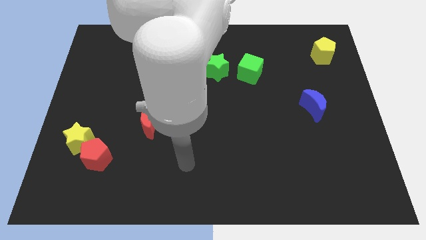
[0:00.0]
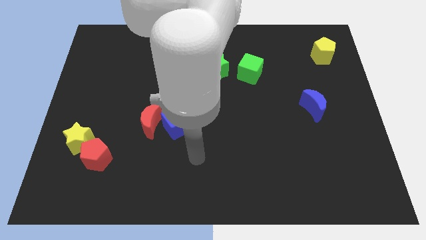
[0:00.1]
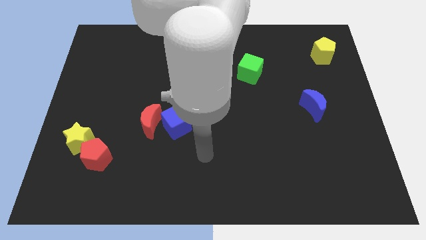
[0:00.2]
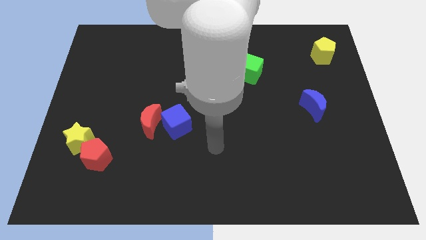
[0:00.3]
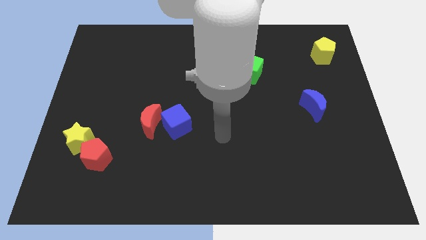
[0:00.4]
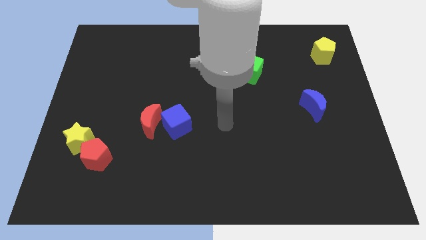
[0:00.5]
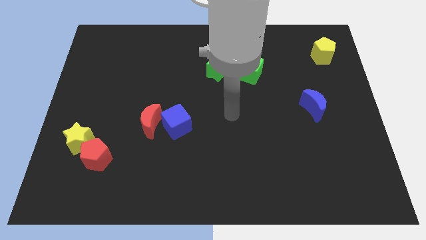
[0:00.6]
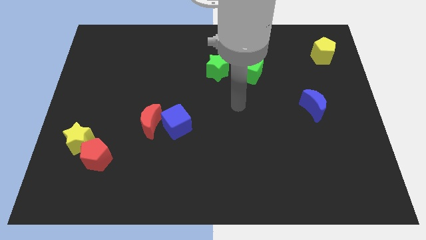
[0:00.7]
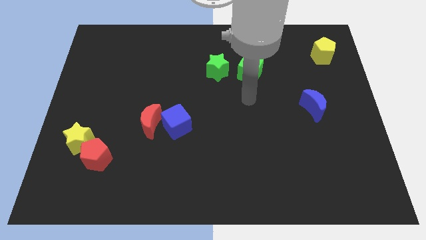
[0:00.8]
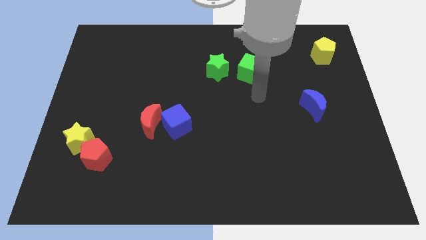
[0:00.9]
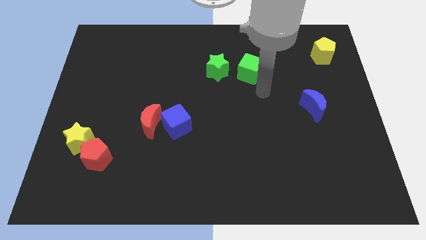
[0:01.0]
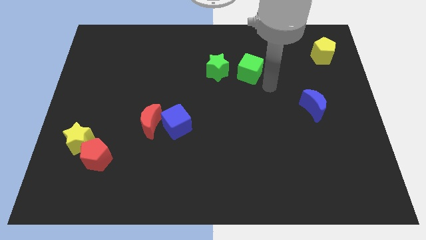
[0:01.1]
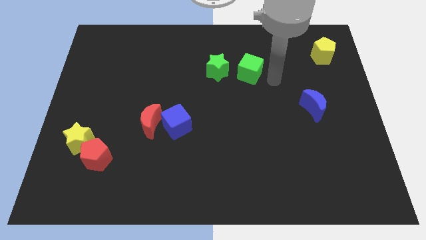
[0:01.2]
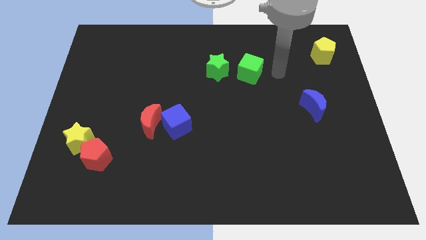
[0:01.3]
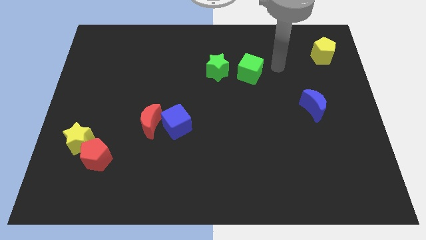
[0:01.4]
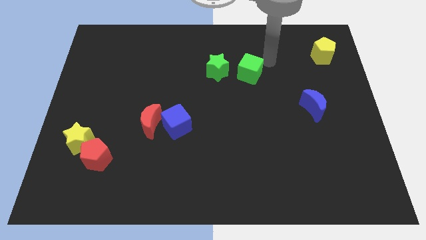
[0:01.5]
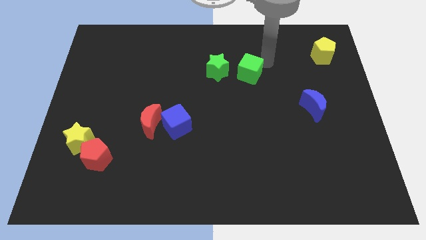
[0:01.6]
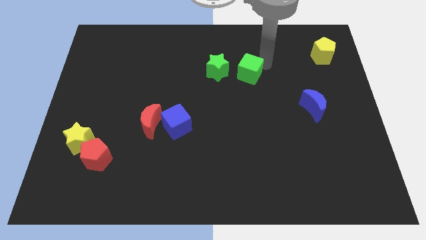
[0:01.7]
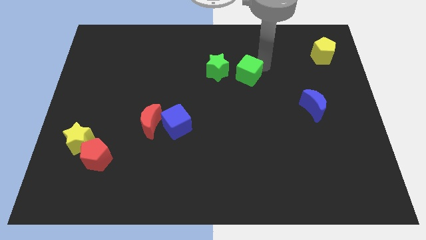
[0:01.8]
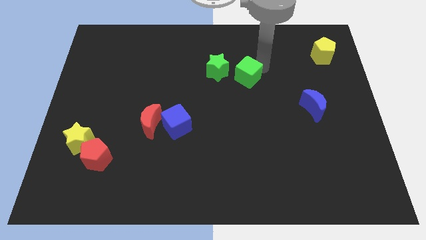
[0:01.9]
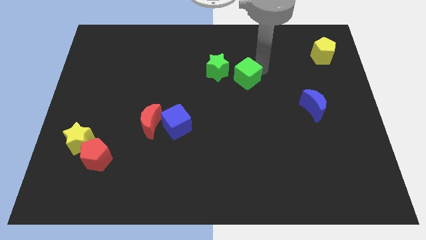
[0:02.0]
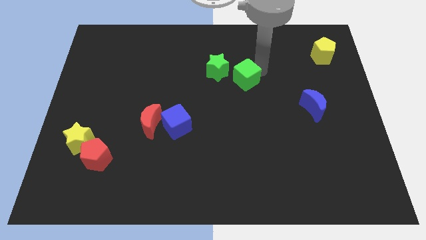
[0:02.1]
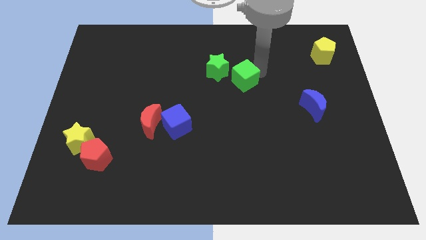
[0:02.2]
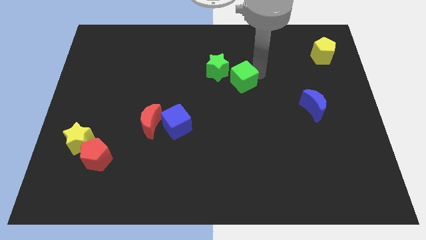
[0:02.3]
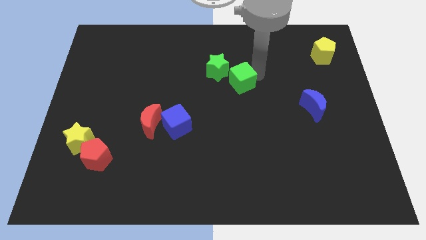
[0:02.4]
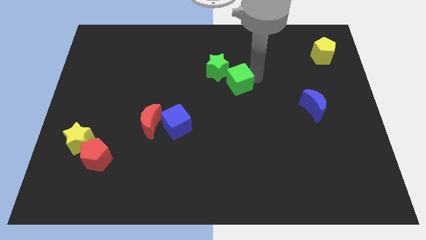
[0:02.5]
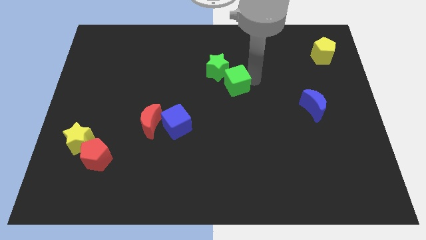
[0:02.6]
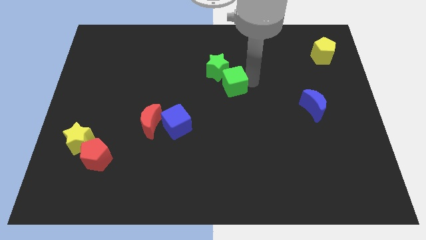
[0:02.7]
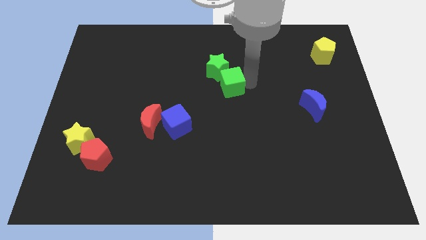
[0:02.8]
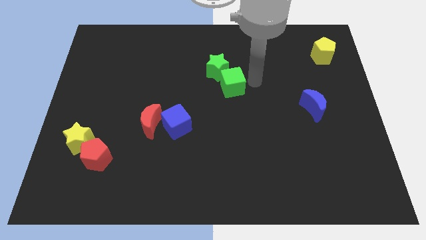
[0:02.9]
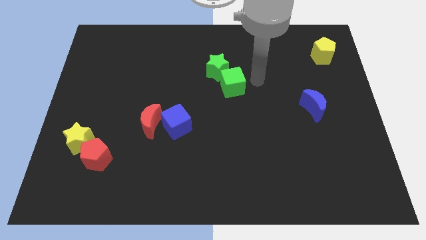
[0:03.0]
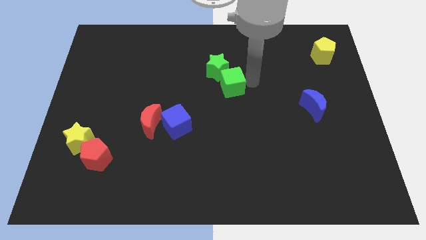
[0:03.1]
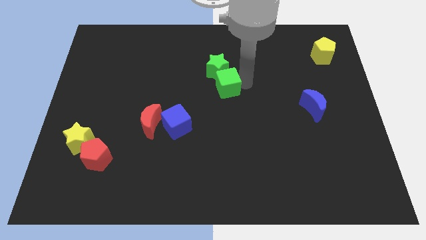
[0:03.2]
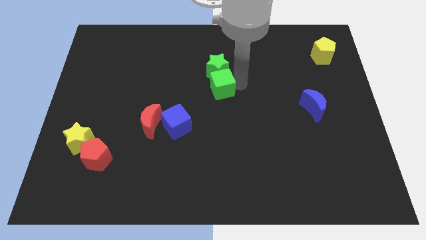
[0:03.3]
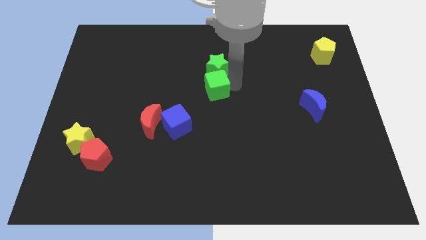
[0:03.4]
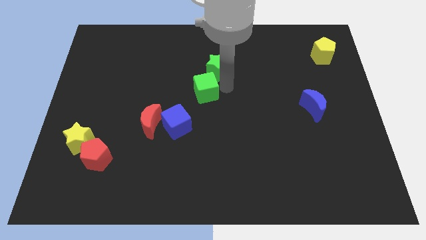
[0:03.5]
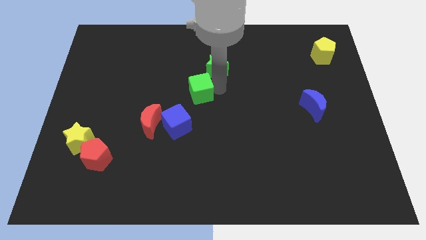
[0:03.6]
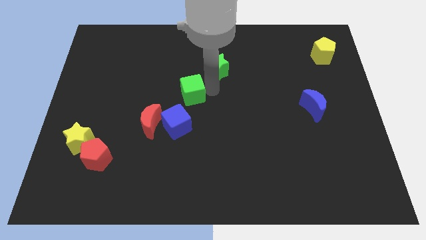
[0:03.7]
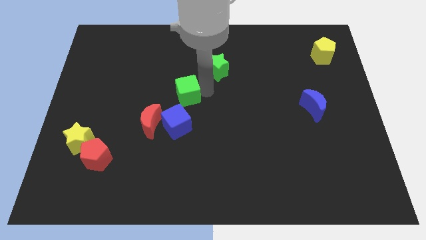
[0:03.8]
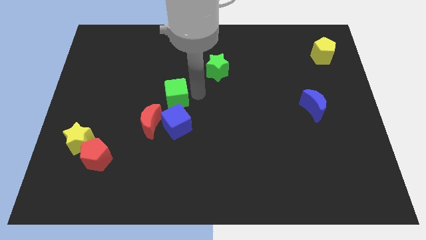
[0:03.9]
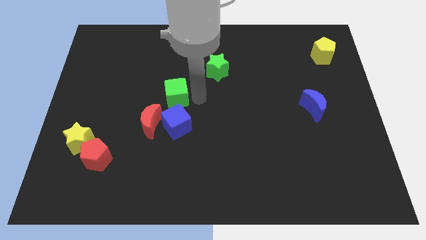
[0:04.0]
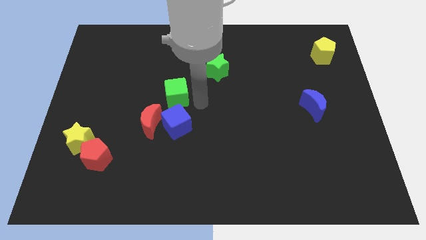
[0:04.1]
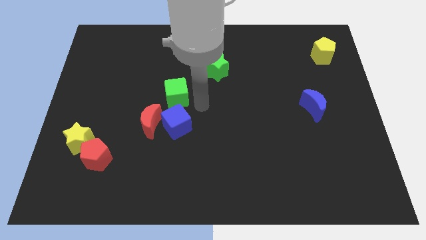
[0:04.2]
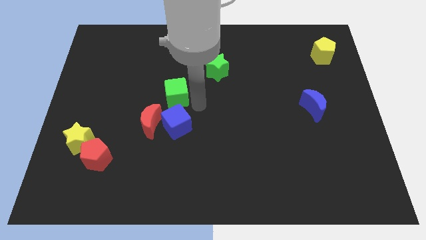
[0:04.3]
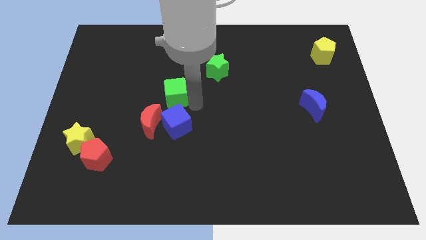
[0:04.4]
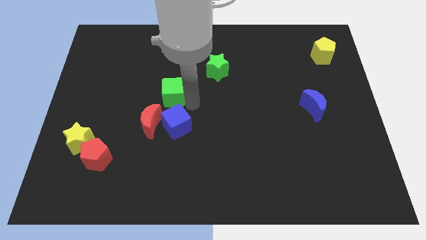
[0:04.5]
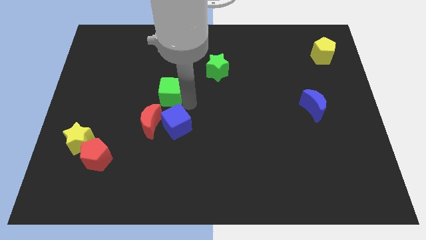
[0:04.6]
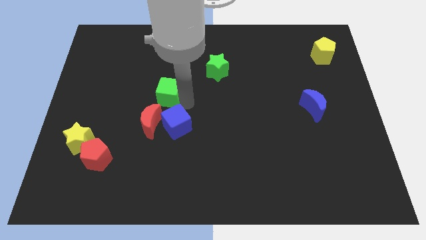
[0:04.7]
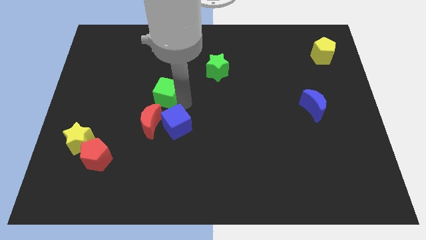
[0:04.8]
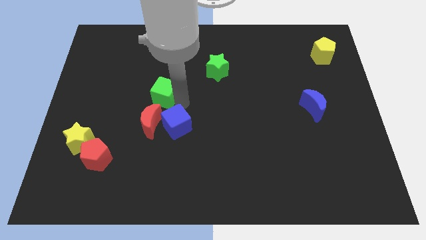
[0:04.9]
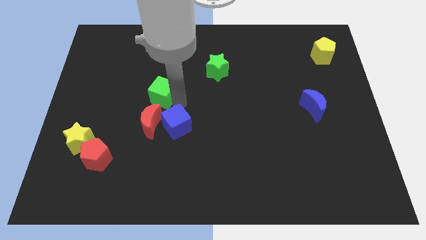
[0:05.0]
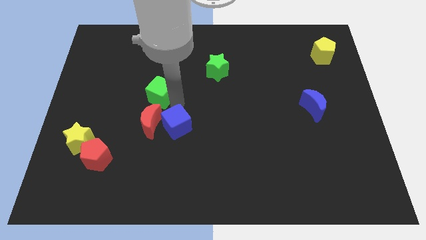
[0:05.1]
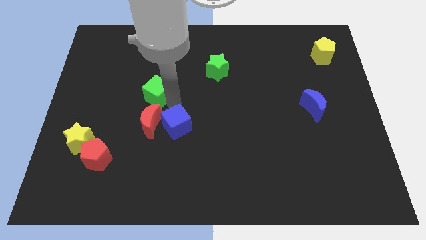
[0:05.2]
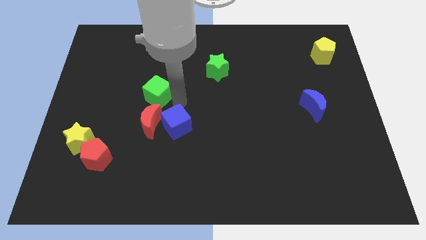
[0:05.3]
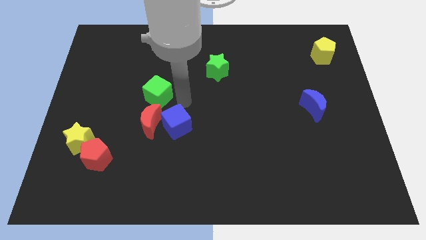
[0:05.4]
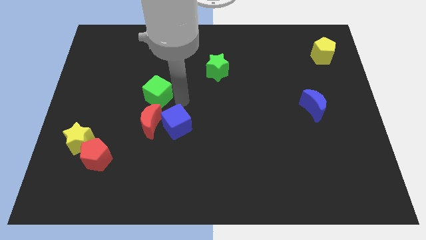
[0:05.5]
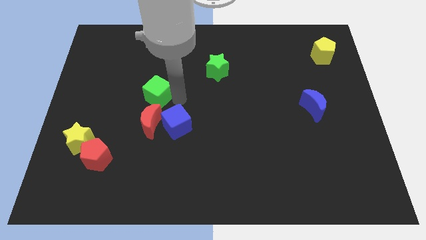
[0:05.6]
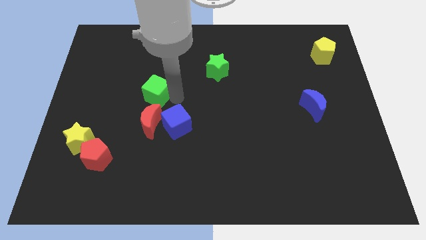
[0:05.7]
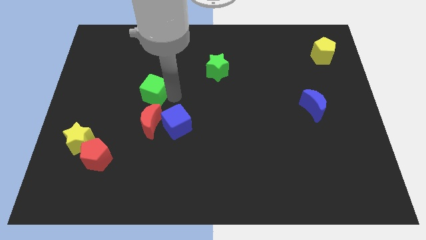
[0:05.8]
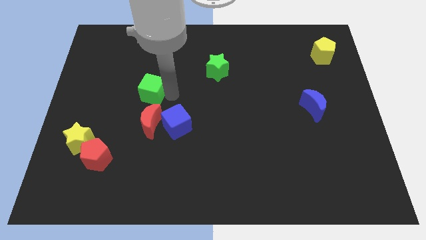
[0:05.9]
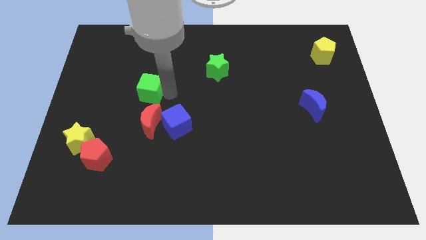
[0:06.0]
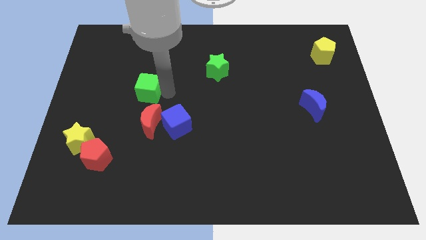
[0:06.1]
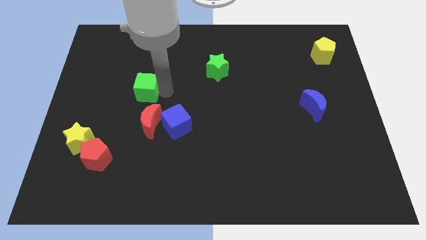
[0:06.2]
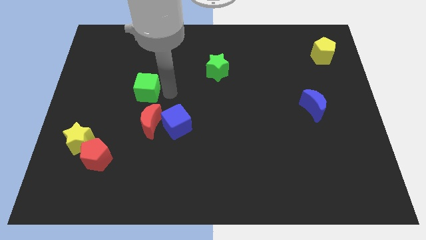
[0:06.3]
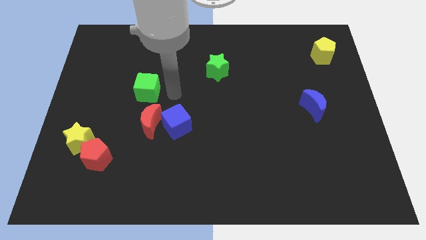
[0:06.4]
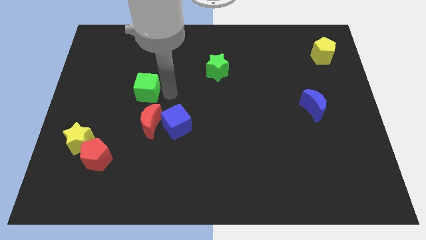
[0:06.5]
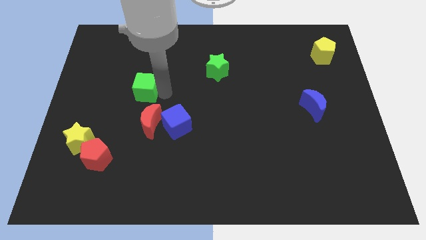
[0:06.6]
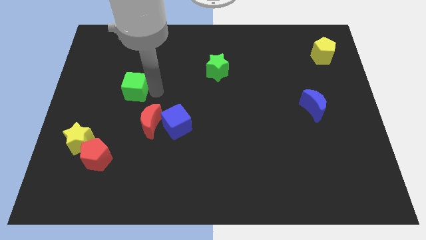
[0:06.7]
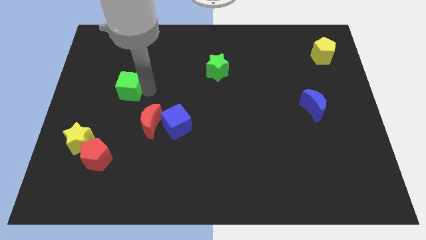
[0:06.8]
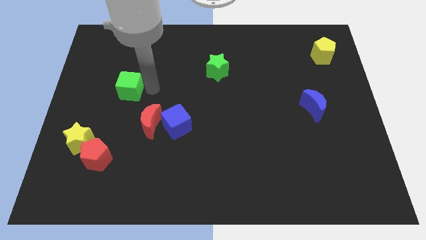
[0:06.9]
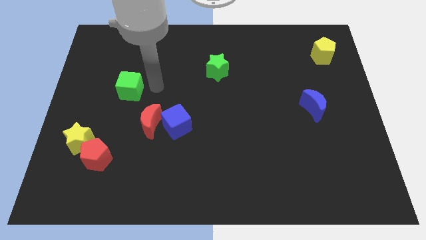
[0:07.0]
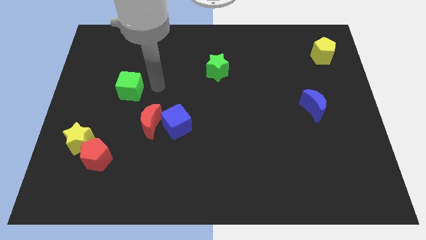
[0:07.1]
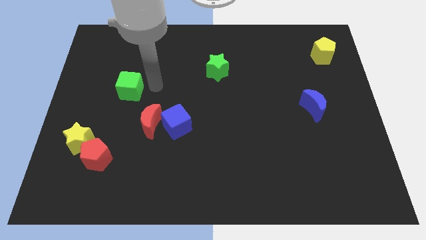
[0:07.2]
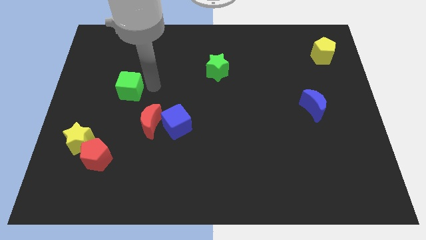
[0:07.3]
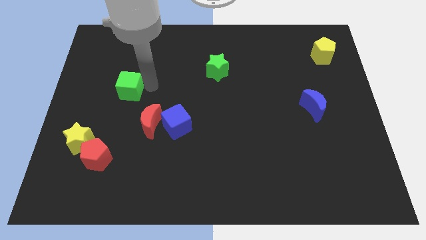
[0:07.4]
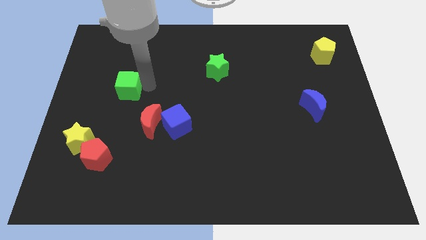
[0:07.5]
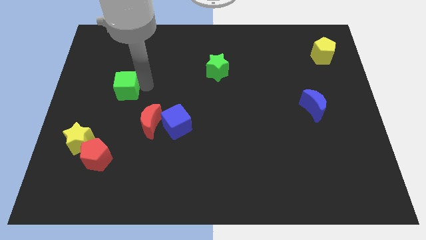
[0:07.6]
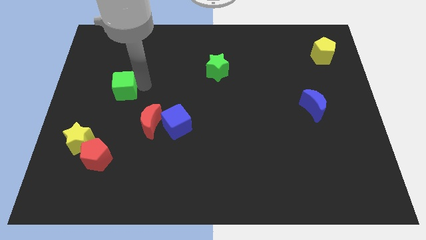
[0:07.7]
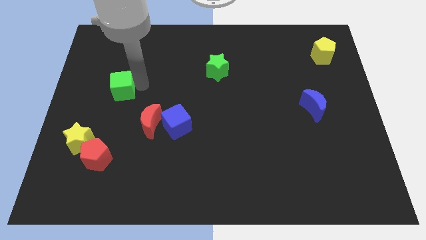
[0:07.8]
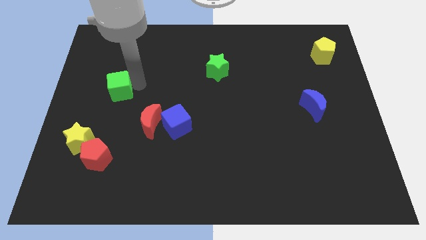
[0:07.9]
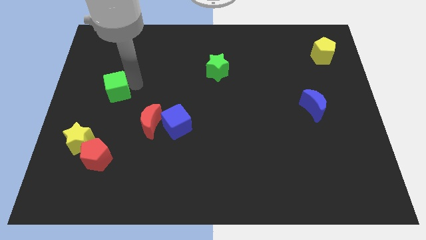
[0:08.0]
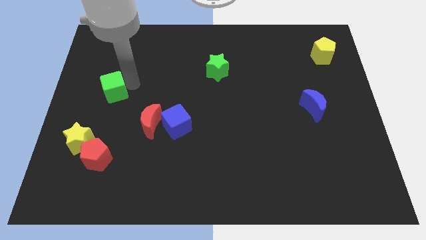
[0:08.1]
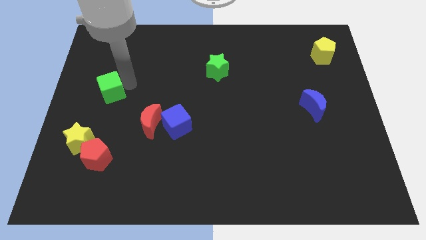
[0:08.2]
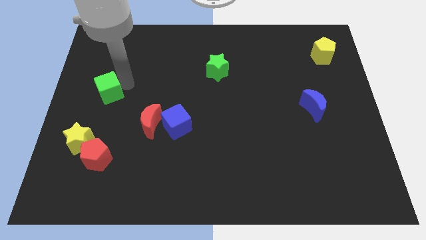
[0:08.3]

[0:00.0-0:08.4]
slide the green cube to the left side of the board
